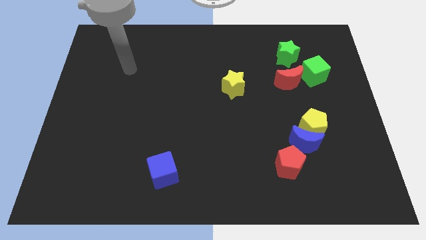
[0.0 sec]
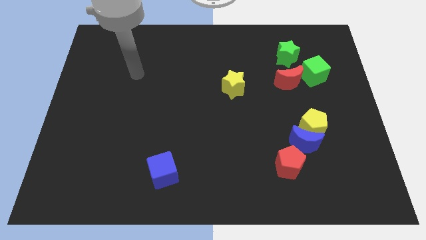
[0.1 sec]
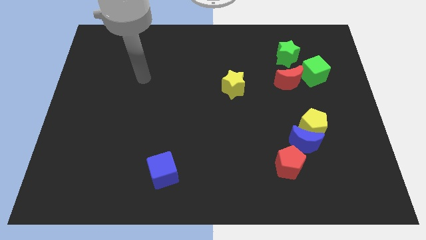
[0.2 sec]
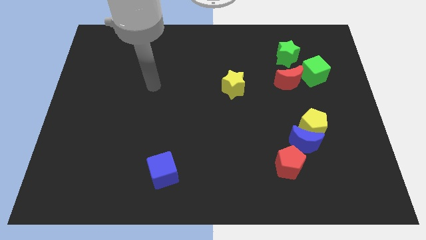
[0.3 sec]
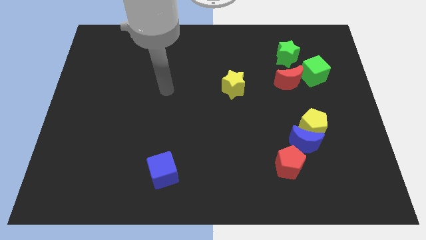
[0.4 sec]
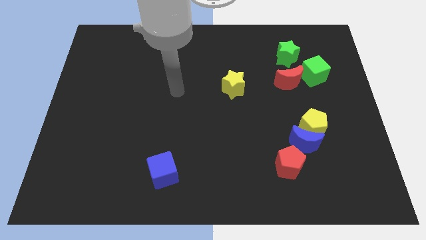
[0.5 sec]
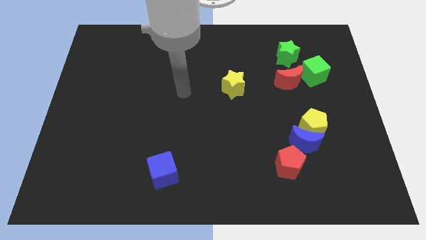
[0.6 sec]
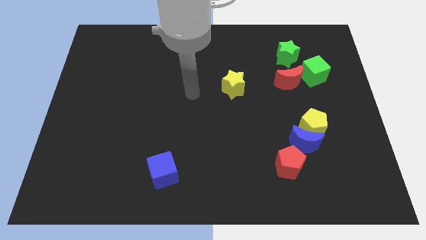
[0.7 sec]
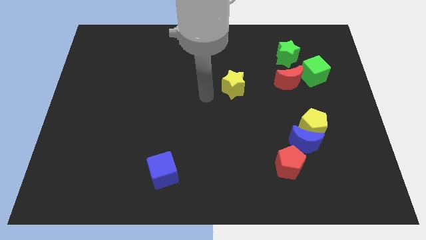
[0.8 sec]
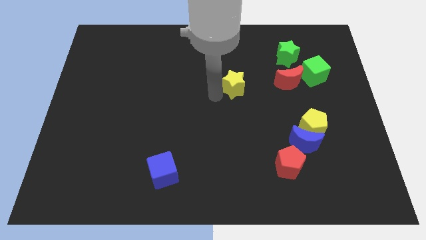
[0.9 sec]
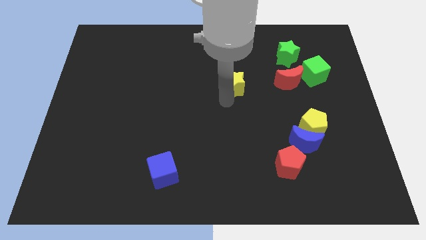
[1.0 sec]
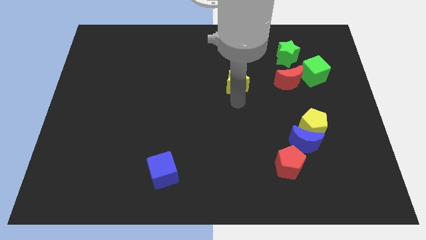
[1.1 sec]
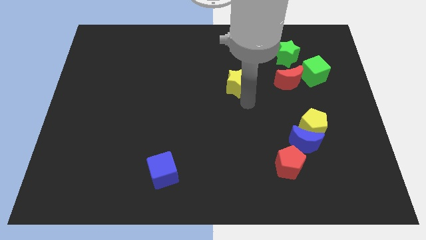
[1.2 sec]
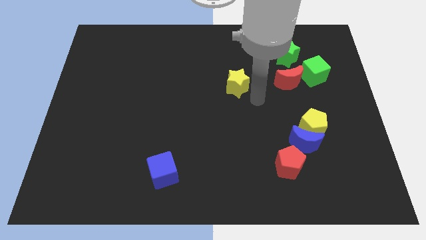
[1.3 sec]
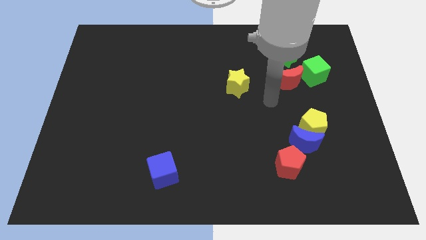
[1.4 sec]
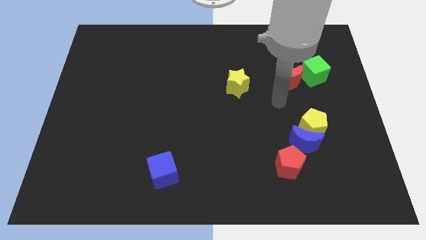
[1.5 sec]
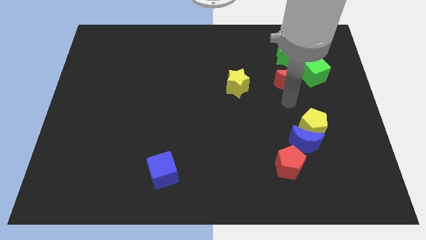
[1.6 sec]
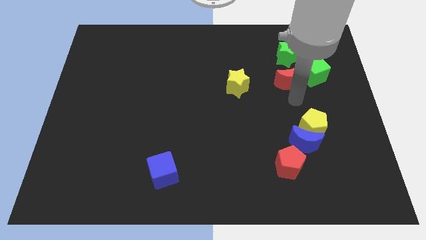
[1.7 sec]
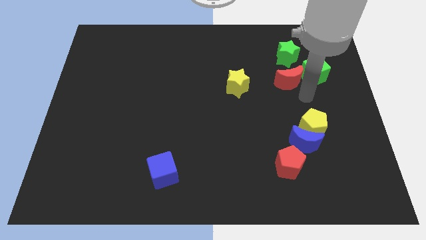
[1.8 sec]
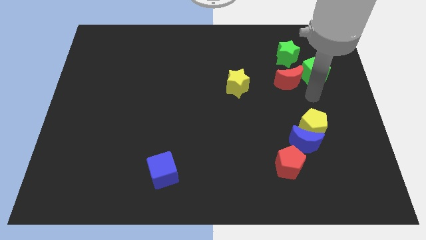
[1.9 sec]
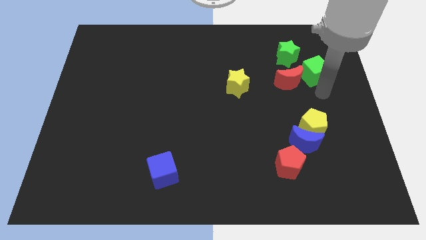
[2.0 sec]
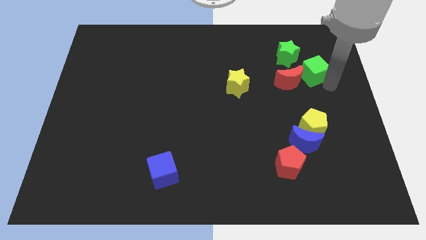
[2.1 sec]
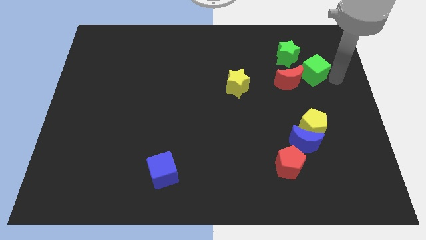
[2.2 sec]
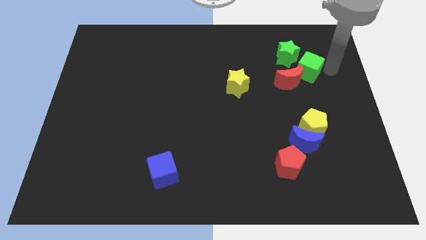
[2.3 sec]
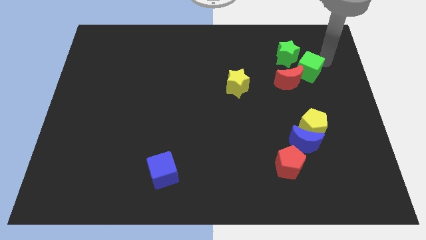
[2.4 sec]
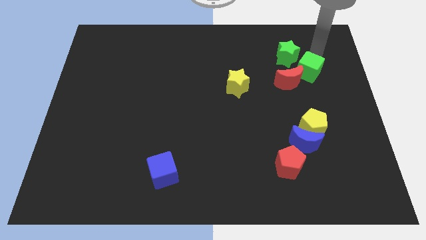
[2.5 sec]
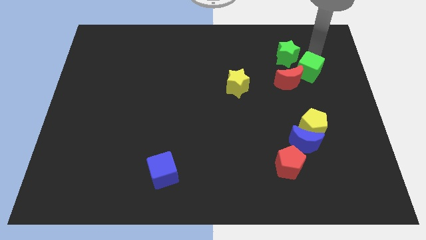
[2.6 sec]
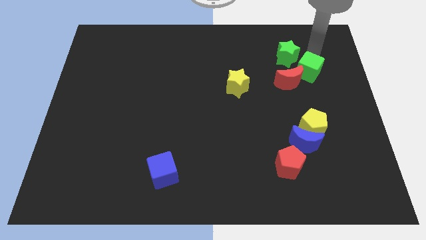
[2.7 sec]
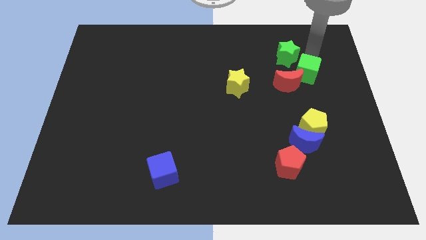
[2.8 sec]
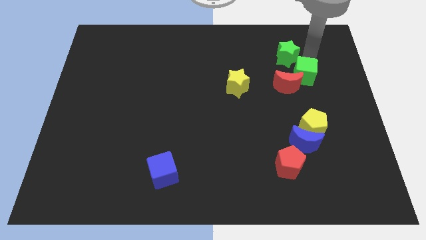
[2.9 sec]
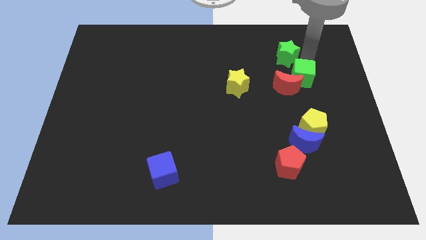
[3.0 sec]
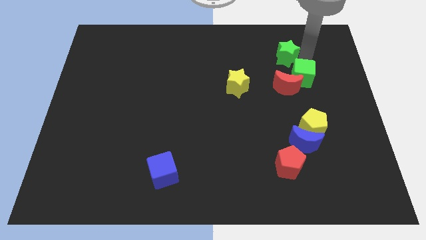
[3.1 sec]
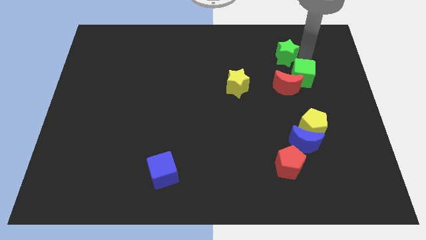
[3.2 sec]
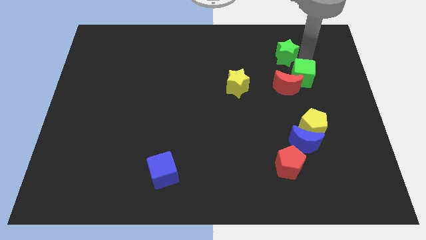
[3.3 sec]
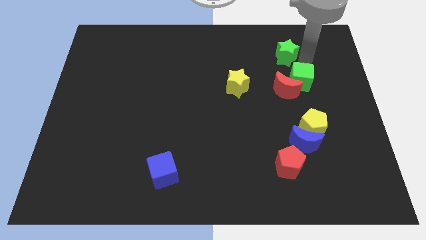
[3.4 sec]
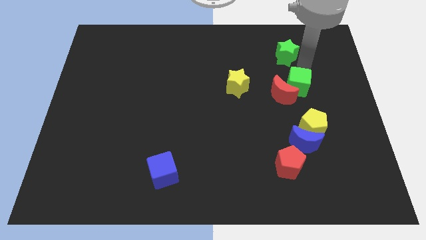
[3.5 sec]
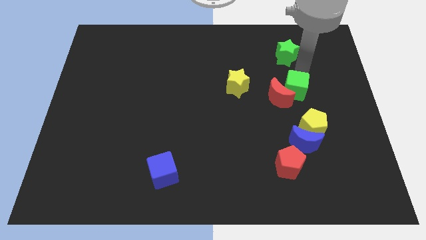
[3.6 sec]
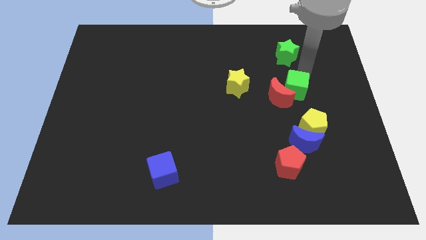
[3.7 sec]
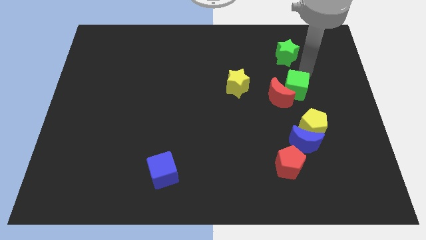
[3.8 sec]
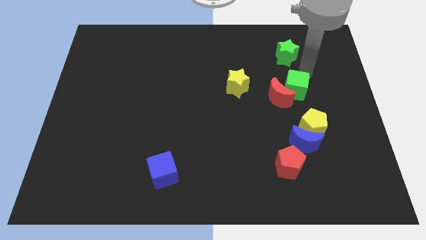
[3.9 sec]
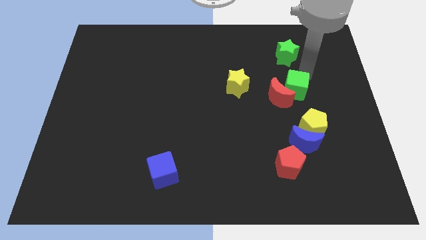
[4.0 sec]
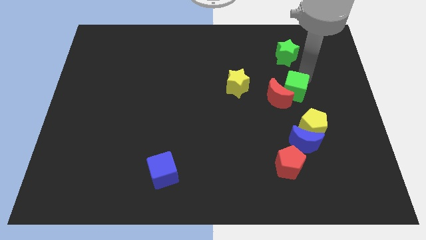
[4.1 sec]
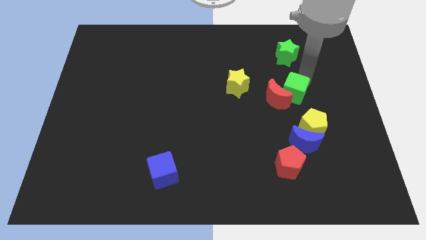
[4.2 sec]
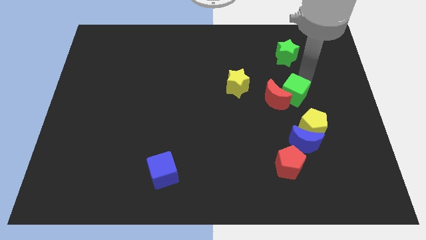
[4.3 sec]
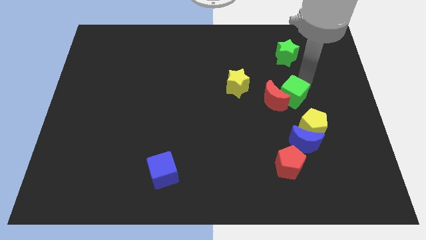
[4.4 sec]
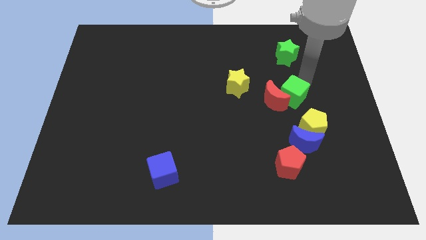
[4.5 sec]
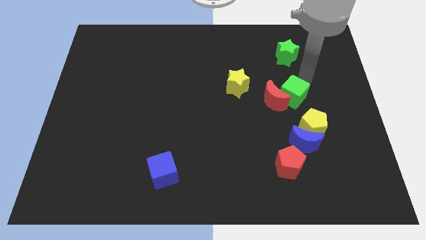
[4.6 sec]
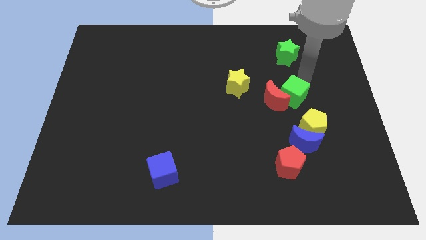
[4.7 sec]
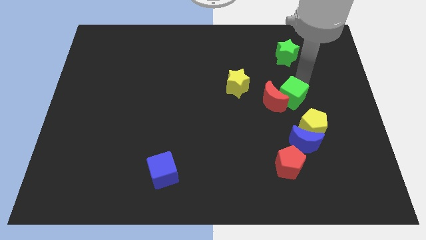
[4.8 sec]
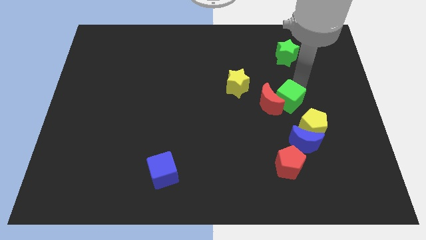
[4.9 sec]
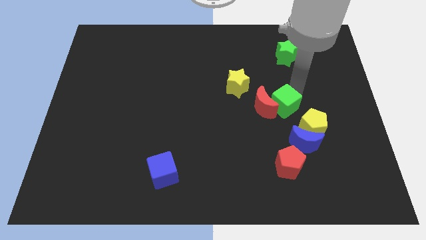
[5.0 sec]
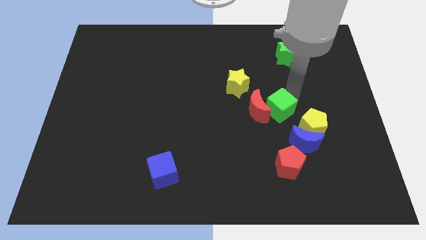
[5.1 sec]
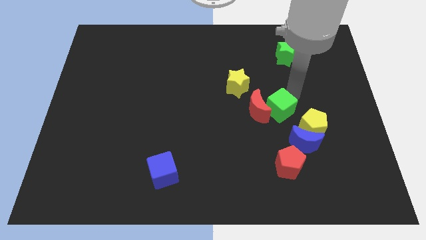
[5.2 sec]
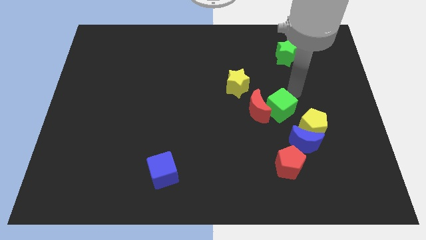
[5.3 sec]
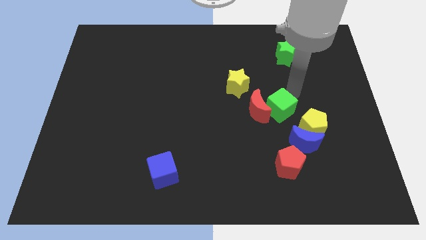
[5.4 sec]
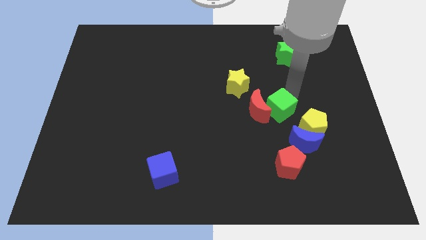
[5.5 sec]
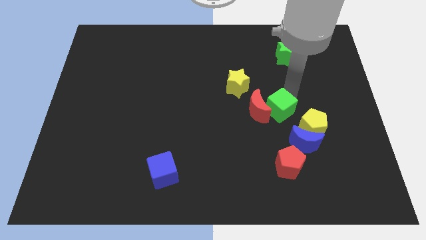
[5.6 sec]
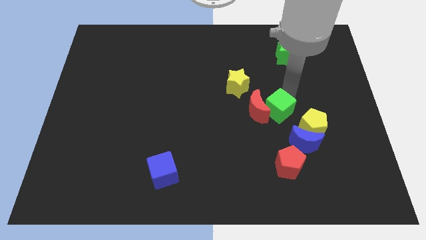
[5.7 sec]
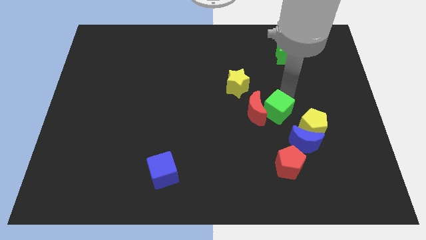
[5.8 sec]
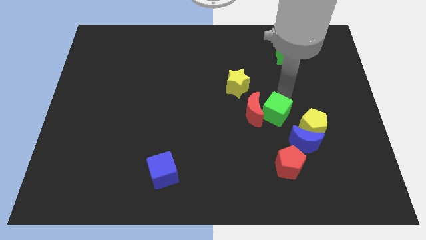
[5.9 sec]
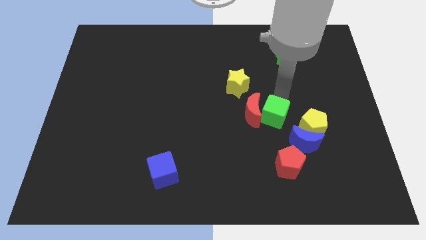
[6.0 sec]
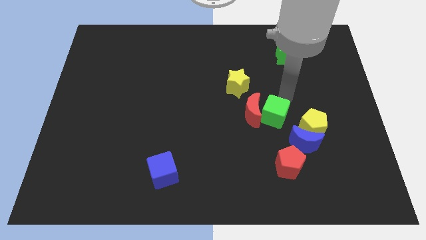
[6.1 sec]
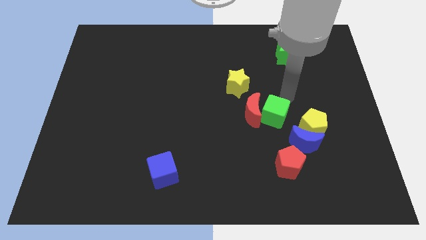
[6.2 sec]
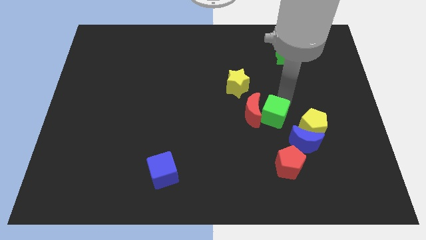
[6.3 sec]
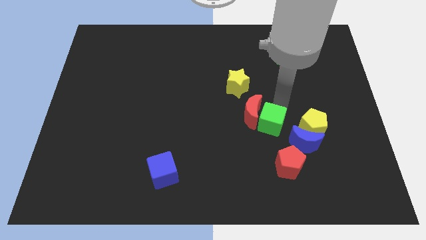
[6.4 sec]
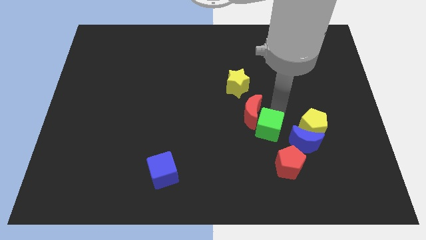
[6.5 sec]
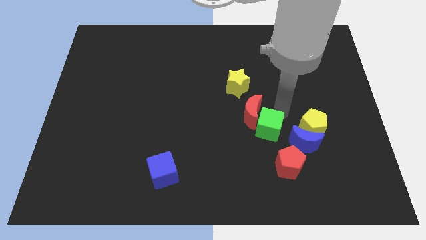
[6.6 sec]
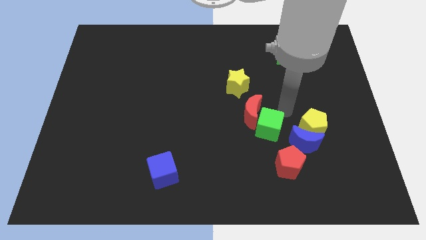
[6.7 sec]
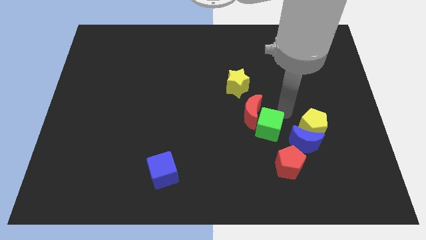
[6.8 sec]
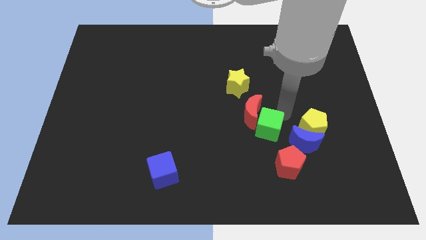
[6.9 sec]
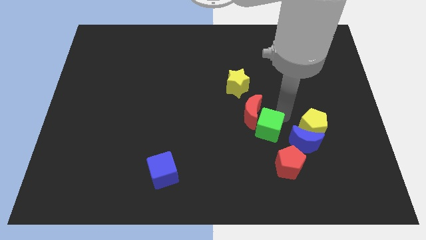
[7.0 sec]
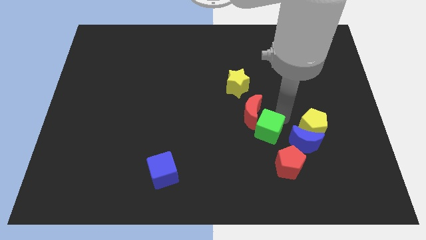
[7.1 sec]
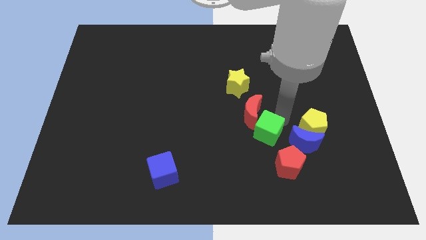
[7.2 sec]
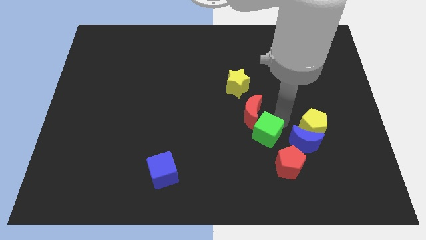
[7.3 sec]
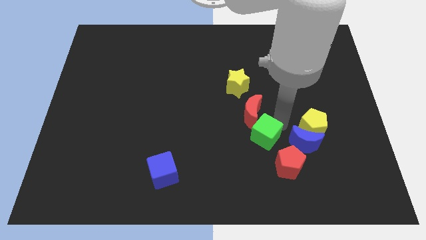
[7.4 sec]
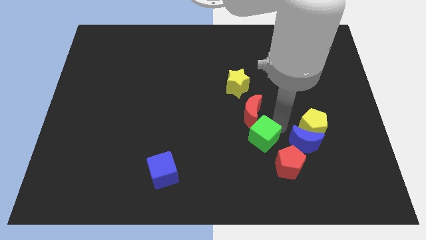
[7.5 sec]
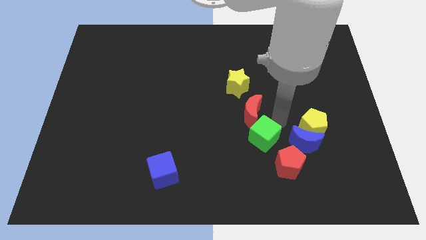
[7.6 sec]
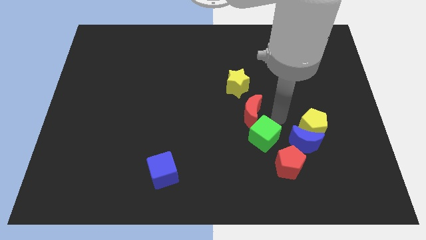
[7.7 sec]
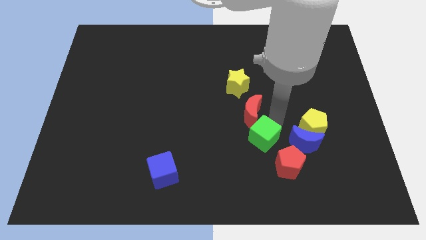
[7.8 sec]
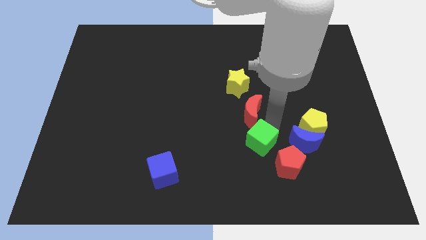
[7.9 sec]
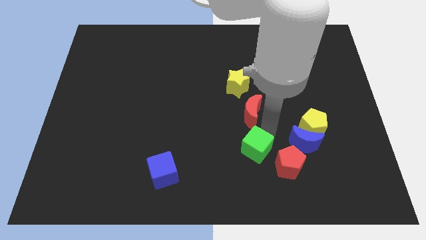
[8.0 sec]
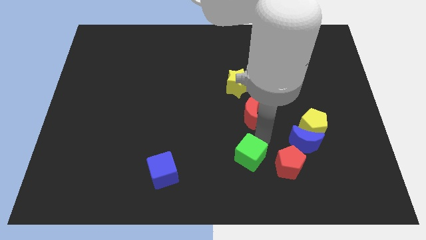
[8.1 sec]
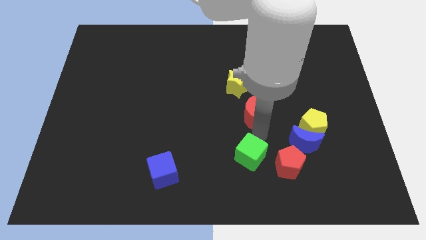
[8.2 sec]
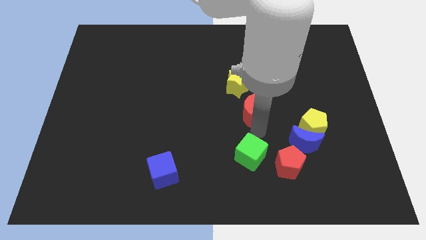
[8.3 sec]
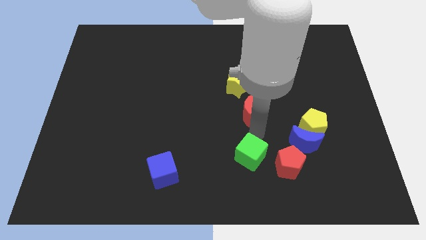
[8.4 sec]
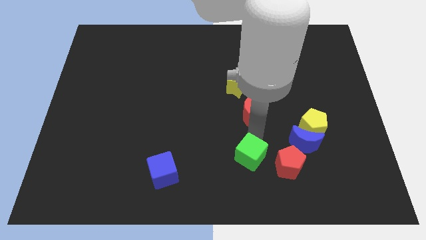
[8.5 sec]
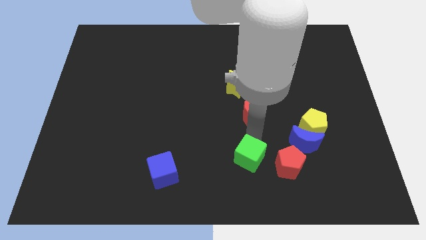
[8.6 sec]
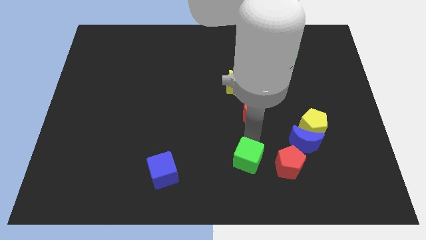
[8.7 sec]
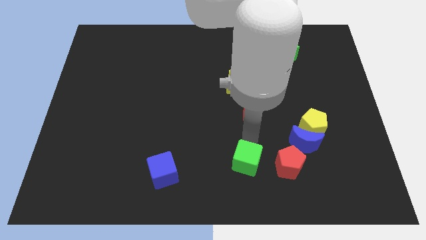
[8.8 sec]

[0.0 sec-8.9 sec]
push the green cube to the bottom
